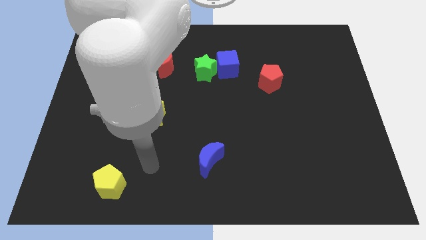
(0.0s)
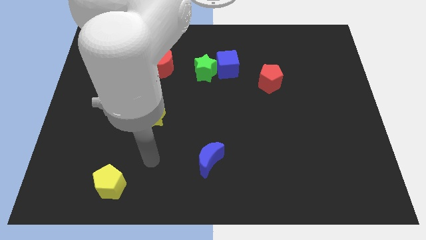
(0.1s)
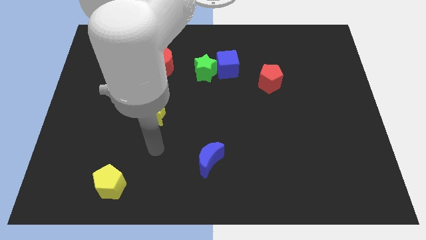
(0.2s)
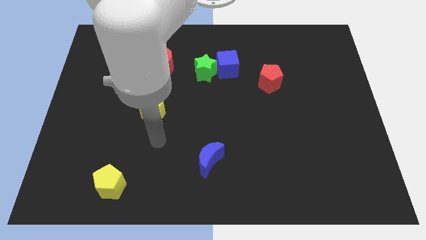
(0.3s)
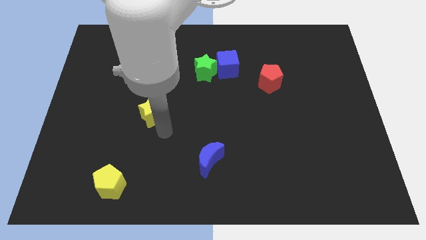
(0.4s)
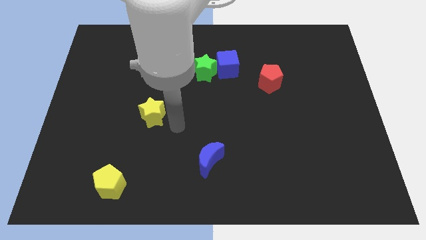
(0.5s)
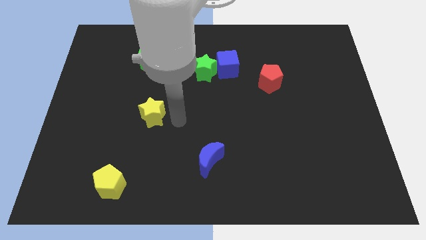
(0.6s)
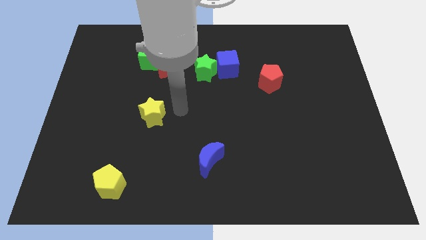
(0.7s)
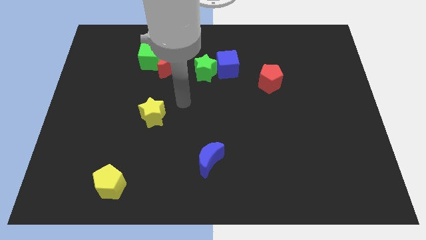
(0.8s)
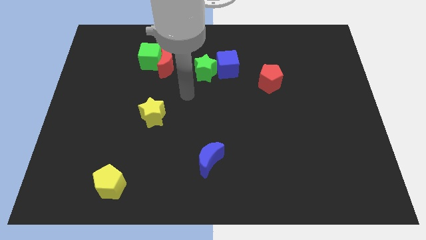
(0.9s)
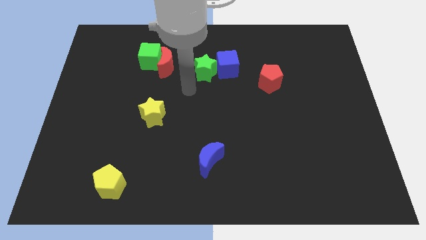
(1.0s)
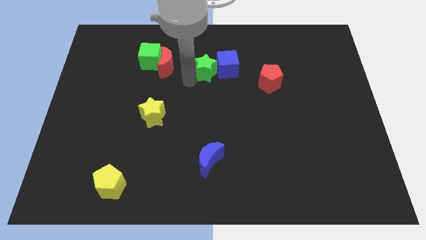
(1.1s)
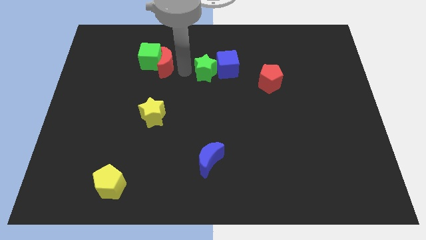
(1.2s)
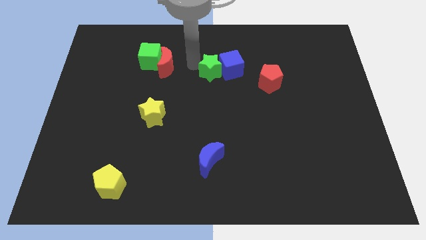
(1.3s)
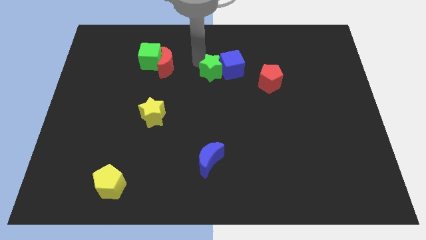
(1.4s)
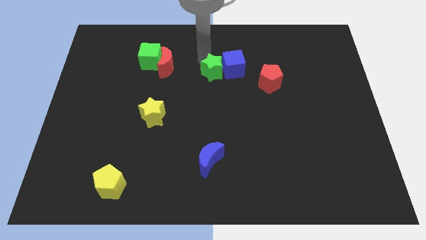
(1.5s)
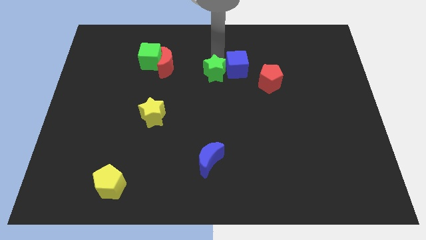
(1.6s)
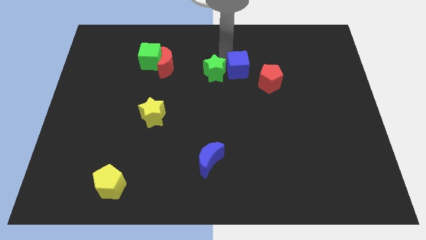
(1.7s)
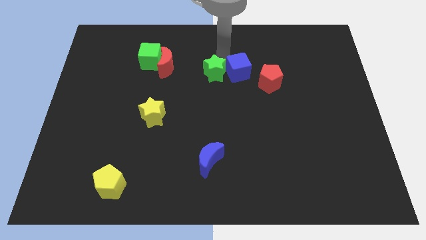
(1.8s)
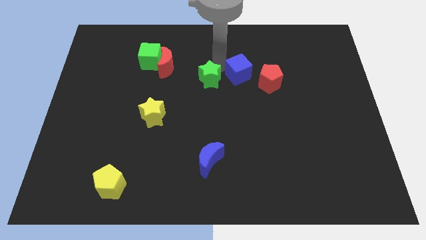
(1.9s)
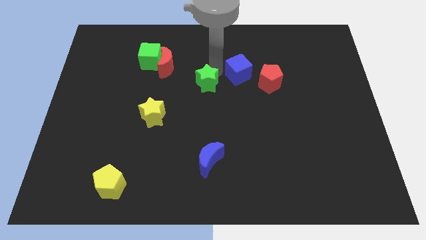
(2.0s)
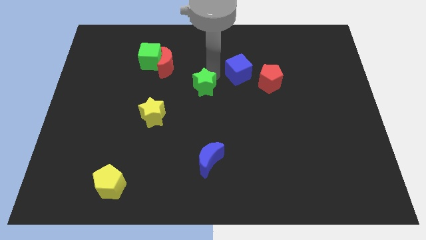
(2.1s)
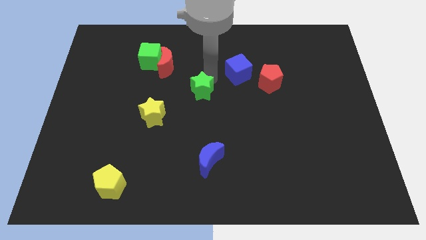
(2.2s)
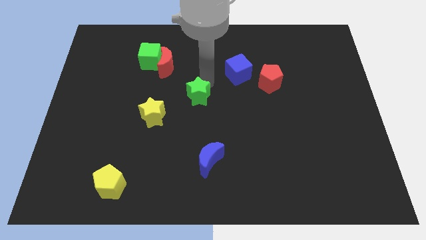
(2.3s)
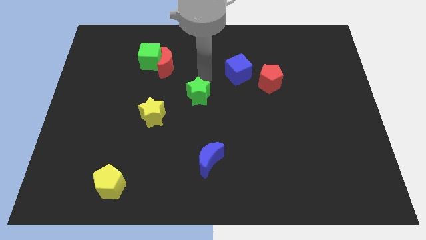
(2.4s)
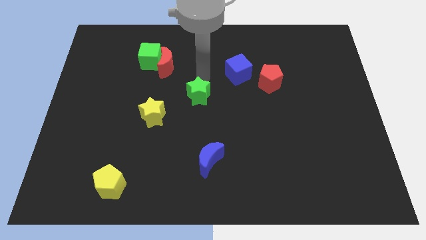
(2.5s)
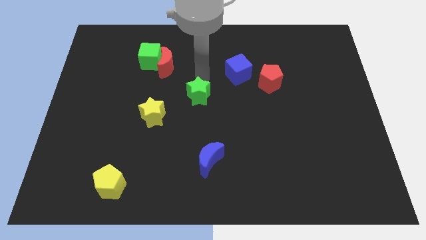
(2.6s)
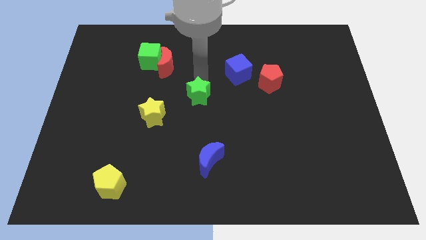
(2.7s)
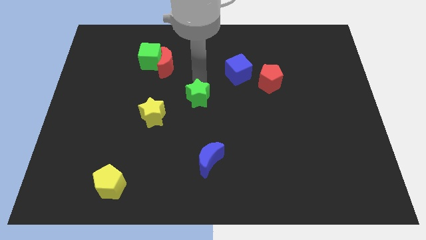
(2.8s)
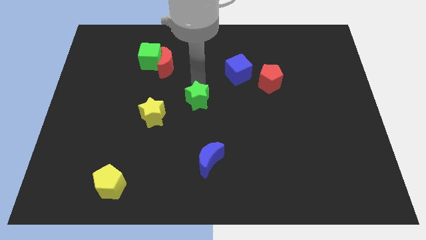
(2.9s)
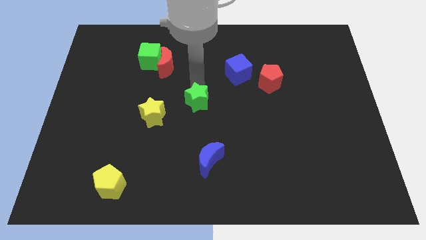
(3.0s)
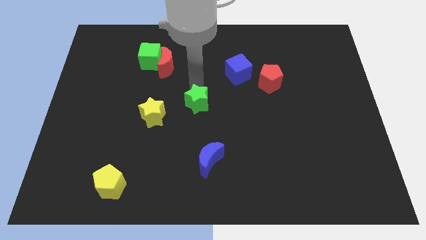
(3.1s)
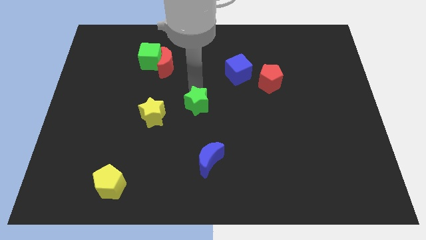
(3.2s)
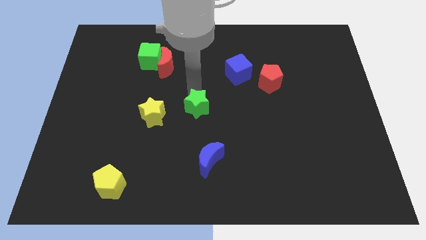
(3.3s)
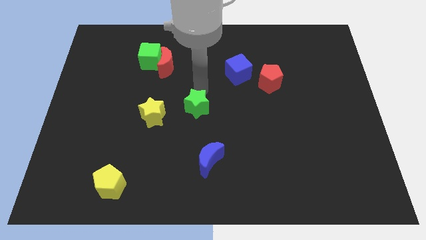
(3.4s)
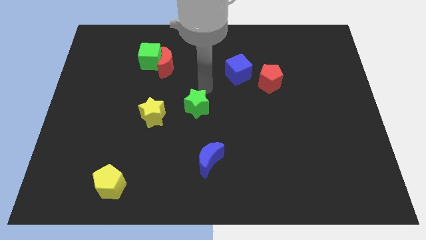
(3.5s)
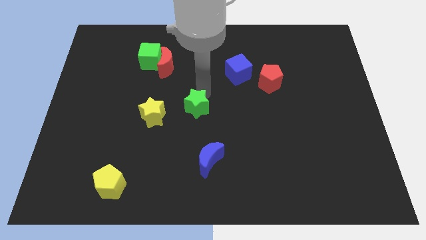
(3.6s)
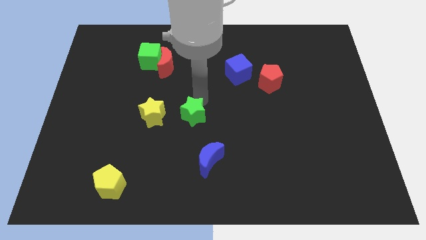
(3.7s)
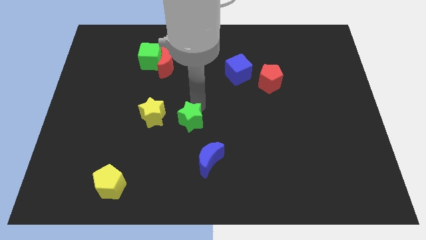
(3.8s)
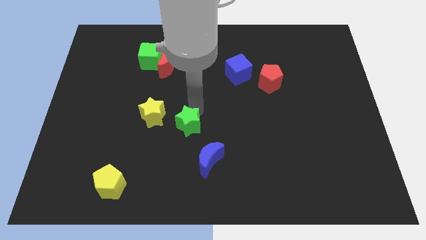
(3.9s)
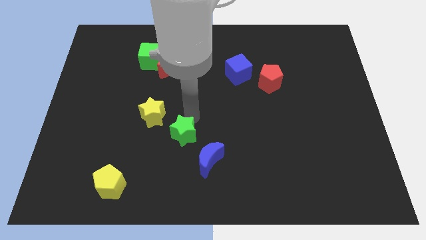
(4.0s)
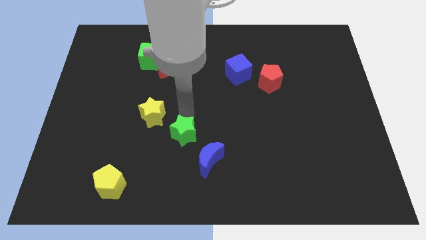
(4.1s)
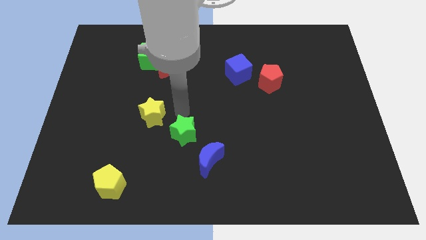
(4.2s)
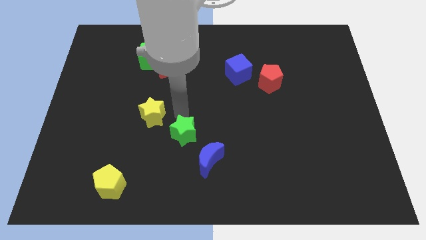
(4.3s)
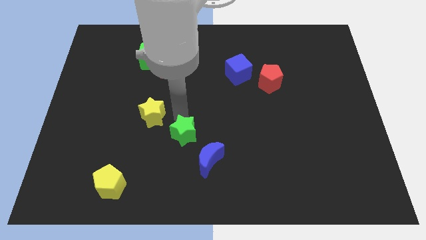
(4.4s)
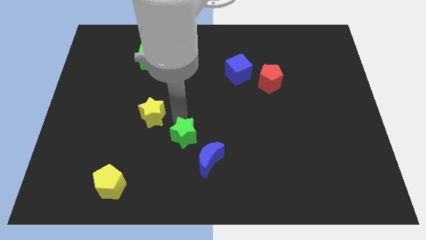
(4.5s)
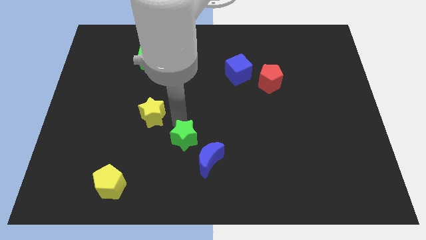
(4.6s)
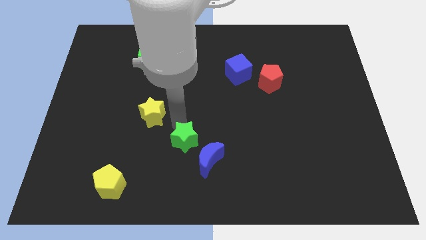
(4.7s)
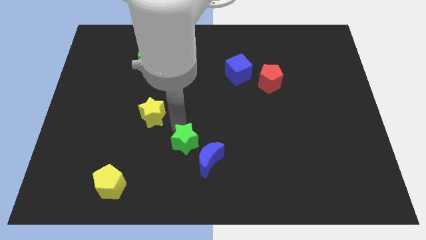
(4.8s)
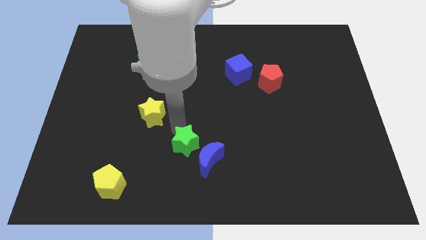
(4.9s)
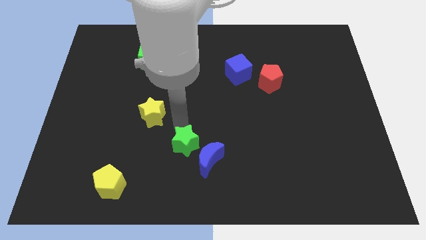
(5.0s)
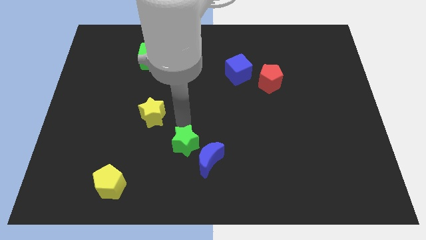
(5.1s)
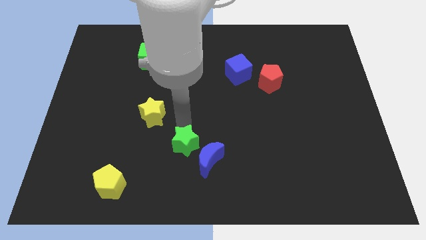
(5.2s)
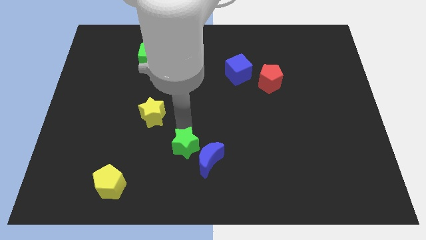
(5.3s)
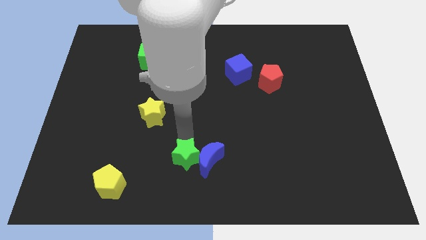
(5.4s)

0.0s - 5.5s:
slide the green star to the bottom left side of the blue moon

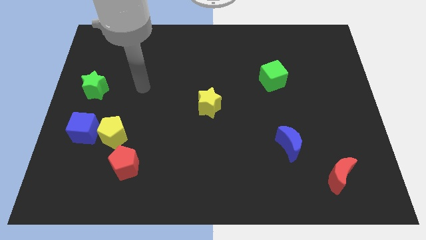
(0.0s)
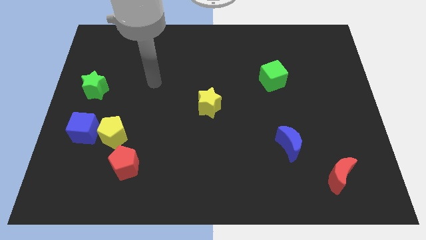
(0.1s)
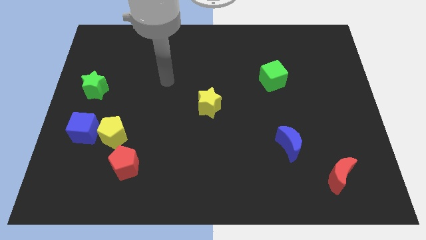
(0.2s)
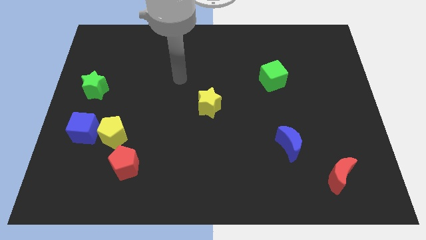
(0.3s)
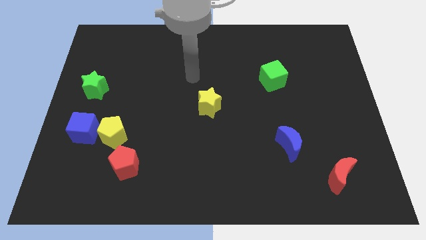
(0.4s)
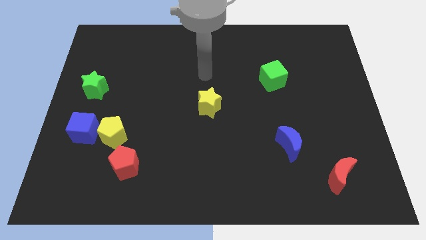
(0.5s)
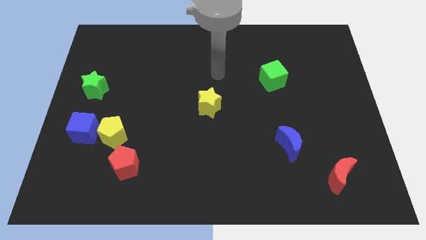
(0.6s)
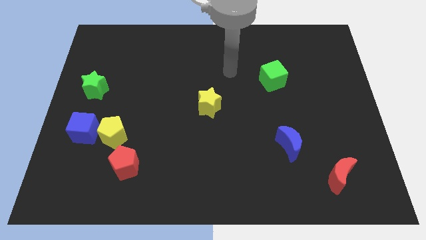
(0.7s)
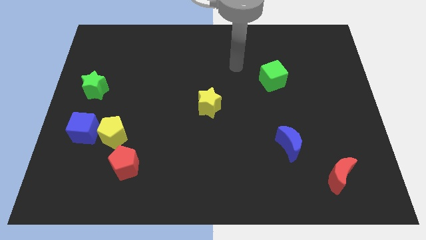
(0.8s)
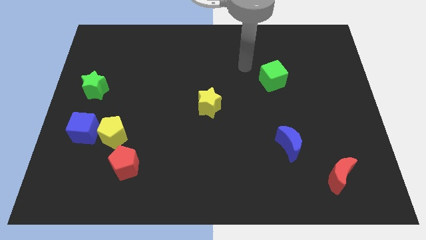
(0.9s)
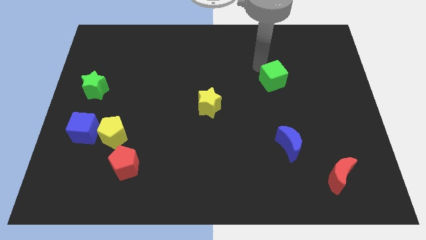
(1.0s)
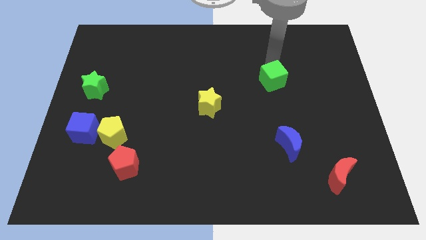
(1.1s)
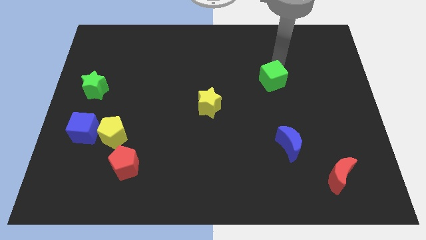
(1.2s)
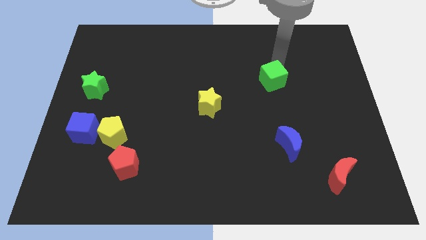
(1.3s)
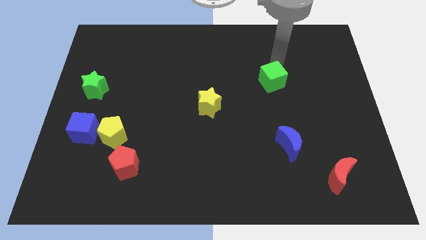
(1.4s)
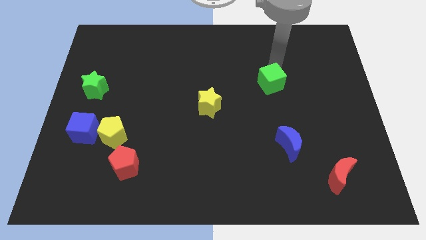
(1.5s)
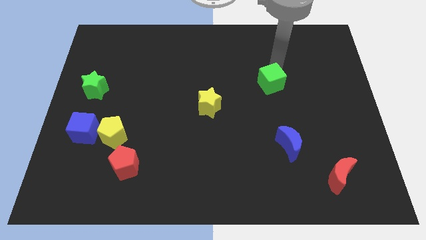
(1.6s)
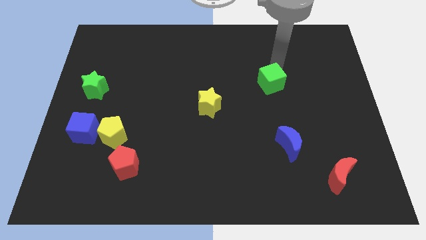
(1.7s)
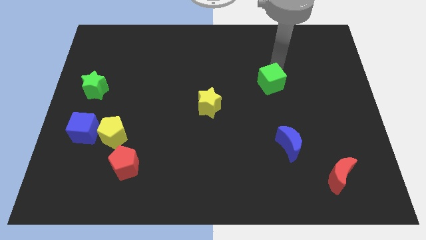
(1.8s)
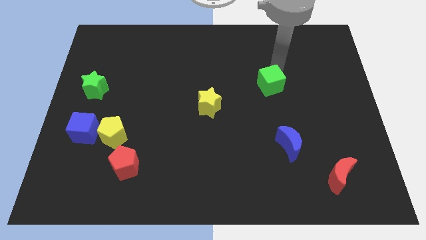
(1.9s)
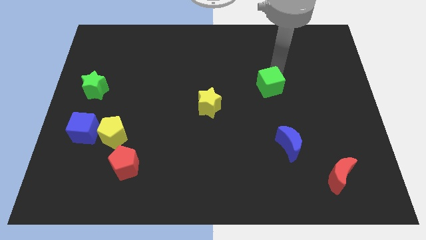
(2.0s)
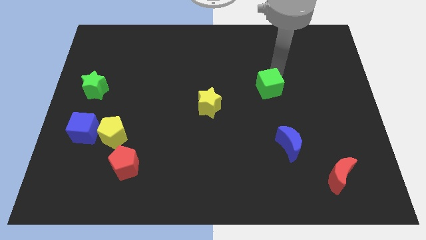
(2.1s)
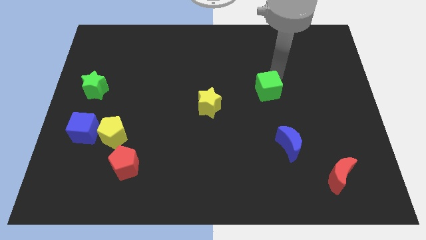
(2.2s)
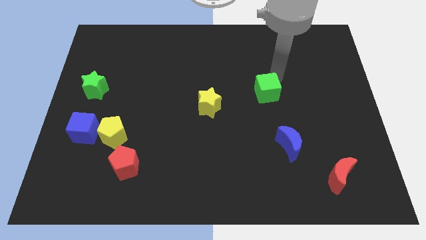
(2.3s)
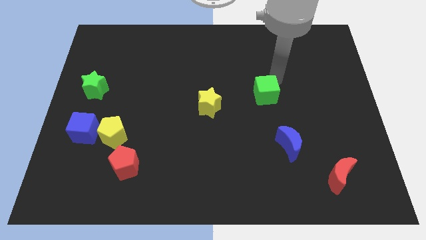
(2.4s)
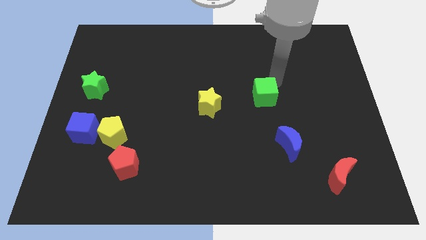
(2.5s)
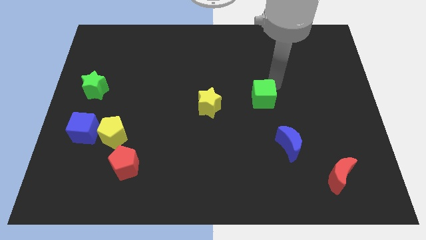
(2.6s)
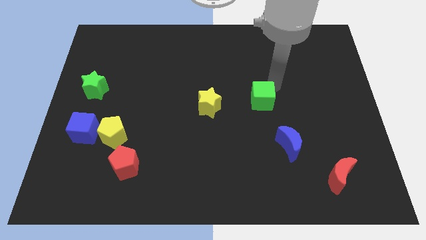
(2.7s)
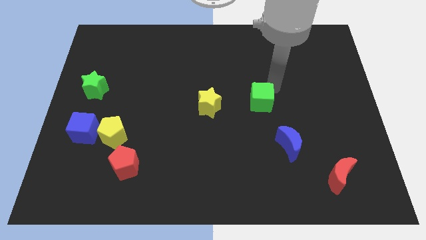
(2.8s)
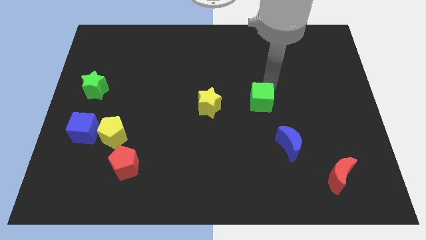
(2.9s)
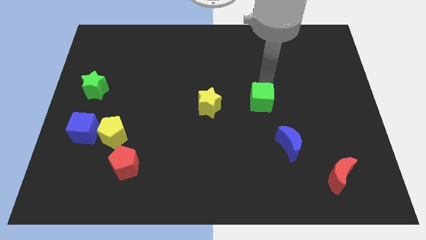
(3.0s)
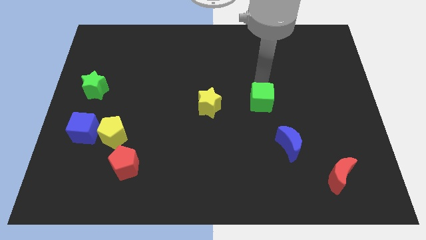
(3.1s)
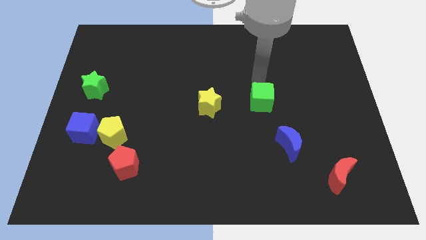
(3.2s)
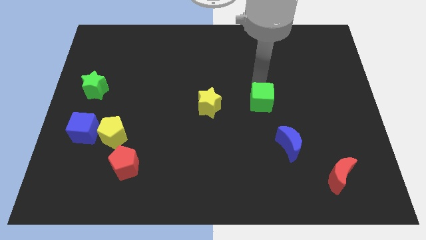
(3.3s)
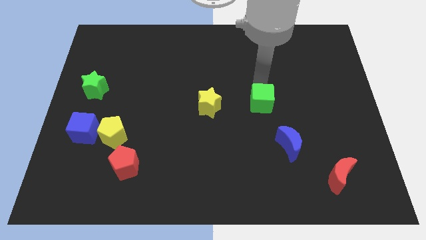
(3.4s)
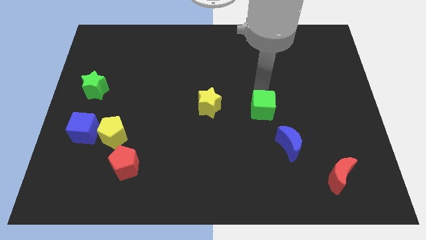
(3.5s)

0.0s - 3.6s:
put the green cube diagonally up and to the left of the blue moon
